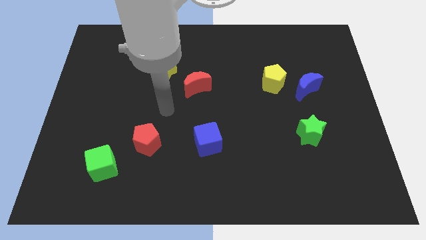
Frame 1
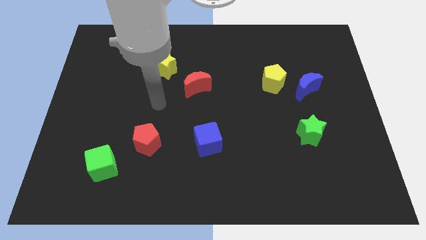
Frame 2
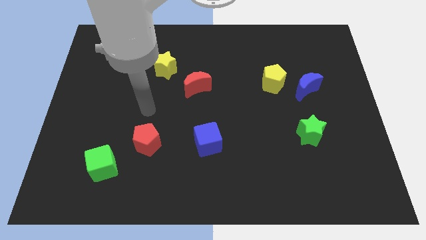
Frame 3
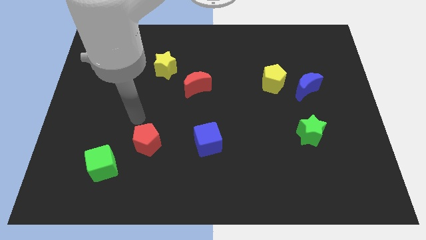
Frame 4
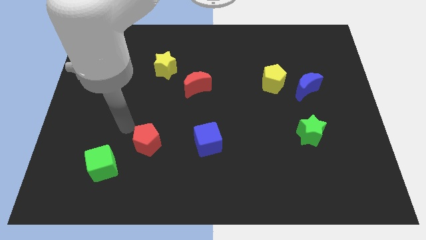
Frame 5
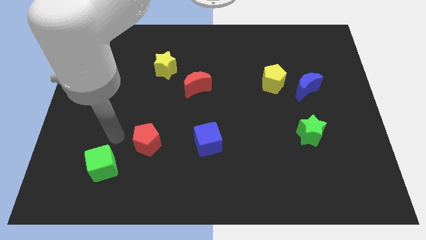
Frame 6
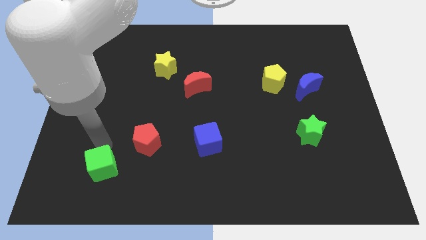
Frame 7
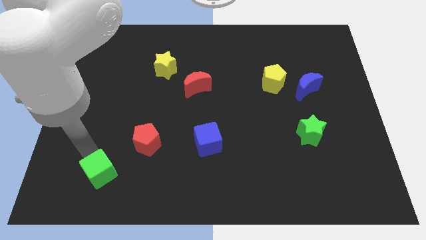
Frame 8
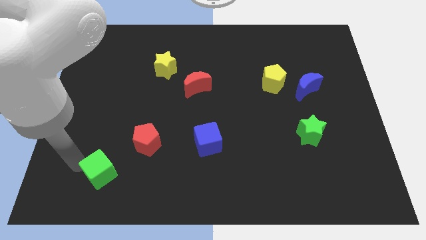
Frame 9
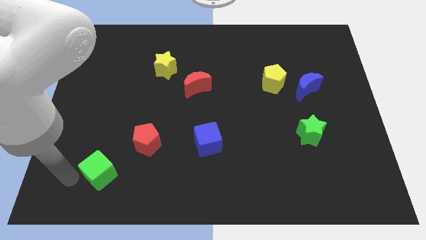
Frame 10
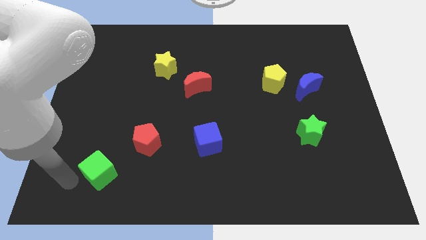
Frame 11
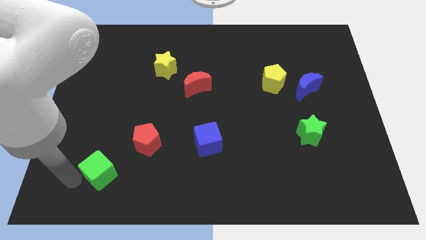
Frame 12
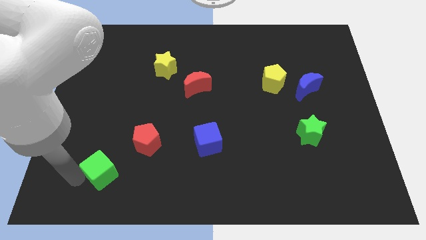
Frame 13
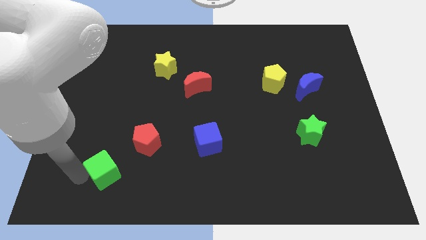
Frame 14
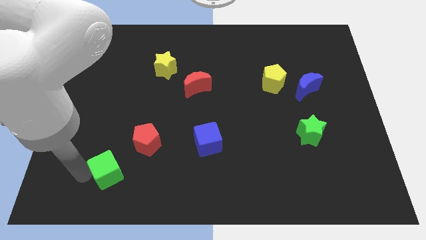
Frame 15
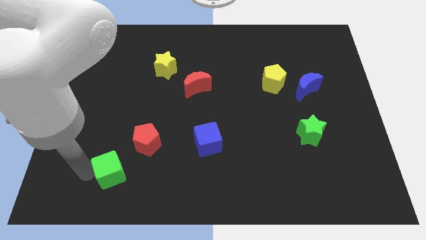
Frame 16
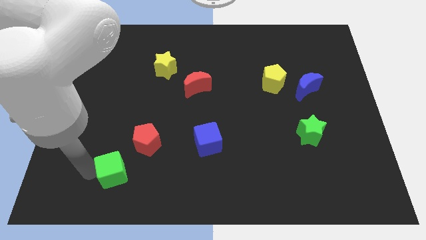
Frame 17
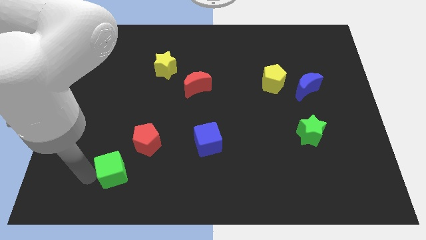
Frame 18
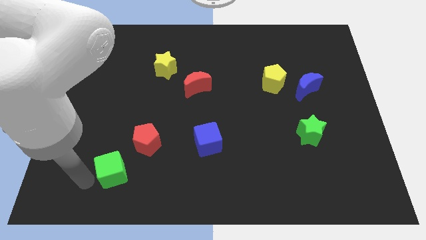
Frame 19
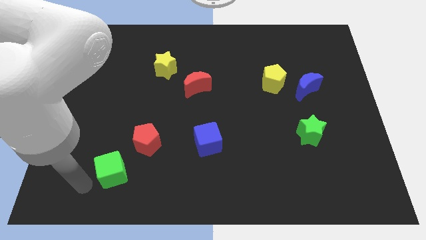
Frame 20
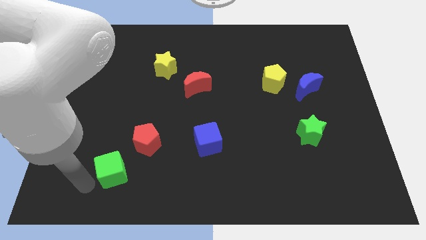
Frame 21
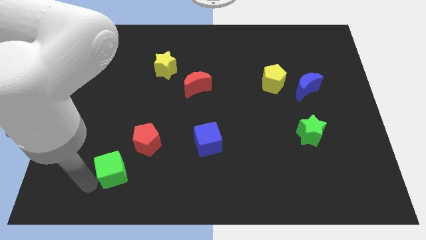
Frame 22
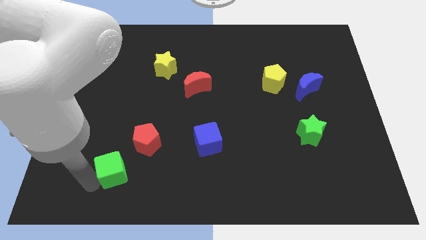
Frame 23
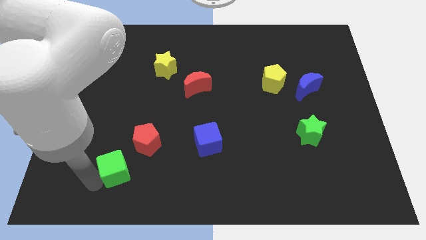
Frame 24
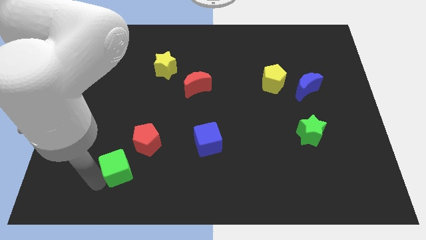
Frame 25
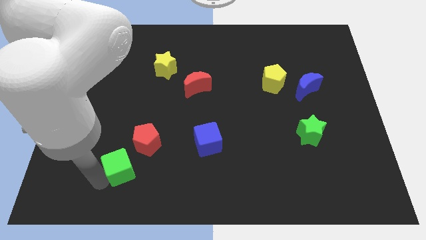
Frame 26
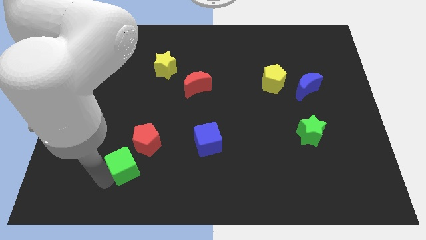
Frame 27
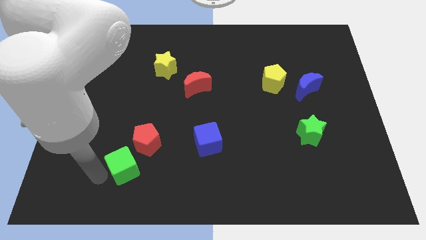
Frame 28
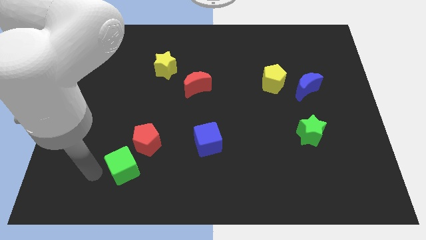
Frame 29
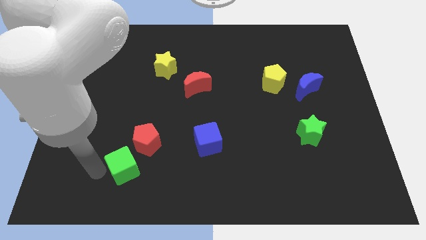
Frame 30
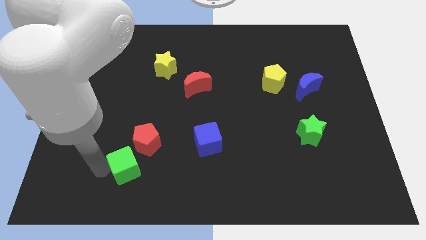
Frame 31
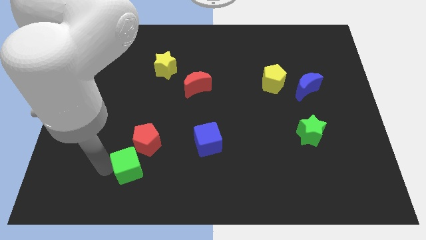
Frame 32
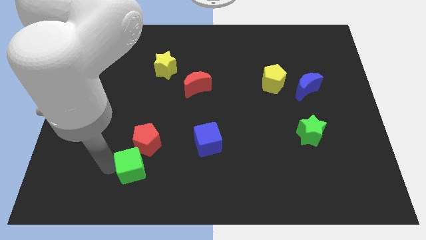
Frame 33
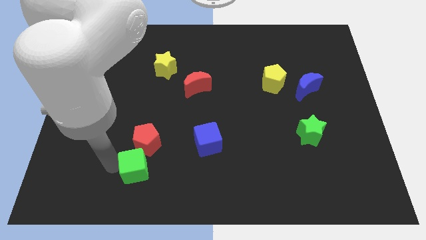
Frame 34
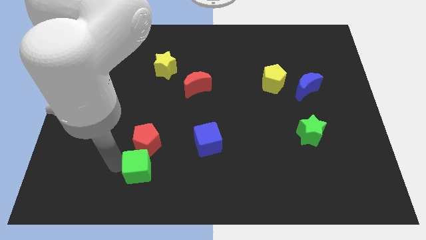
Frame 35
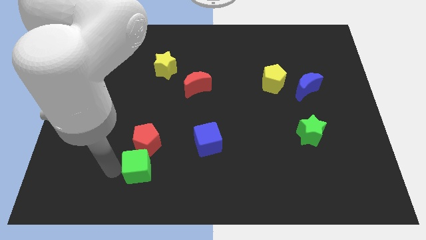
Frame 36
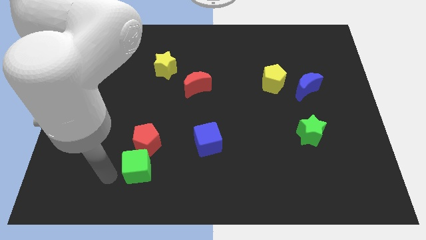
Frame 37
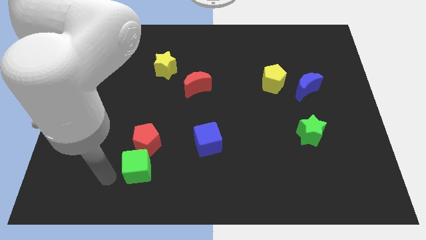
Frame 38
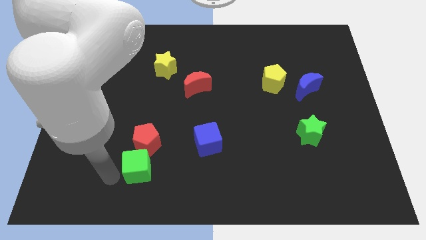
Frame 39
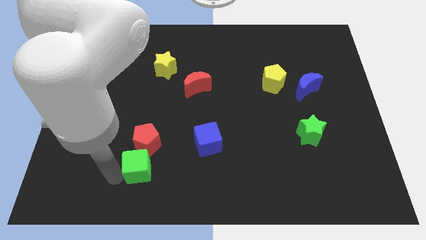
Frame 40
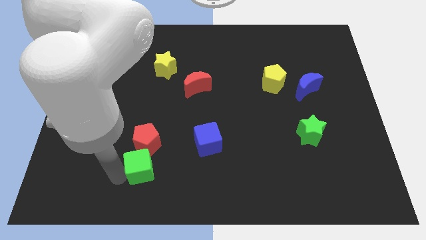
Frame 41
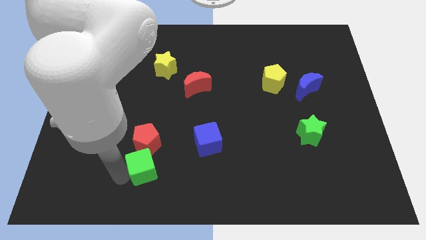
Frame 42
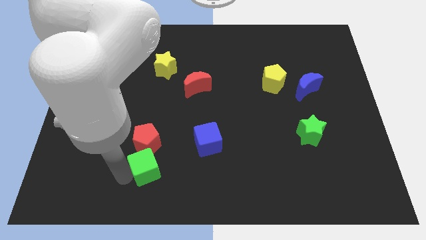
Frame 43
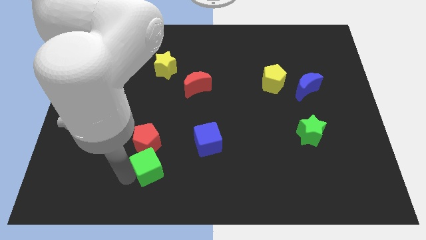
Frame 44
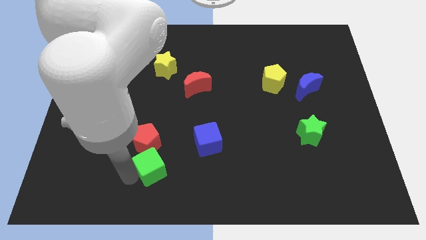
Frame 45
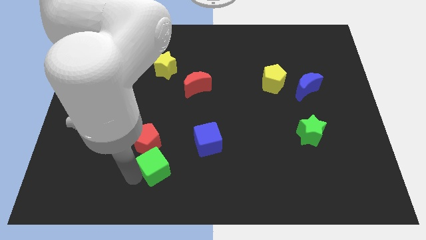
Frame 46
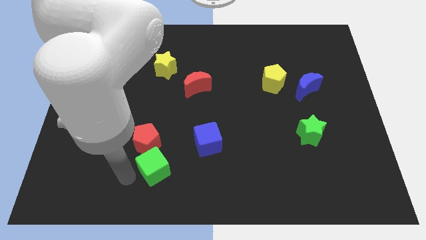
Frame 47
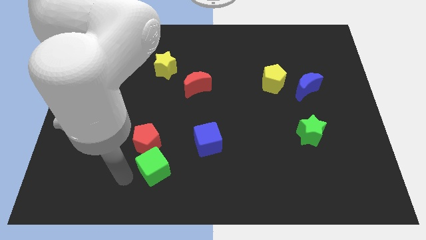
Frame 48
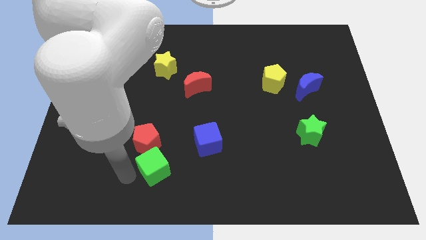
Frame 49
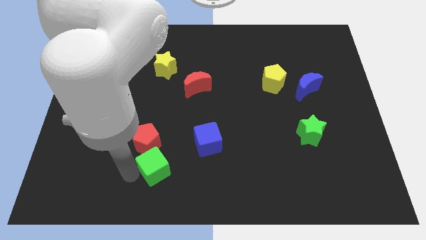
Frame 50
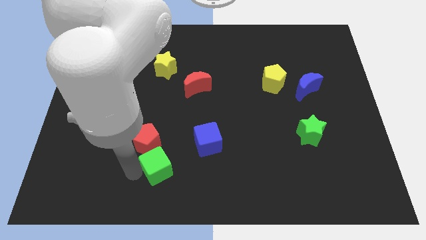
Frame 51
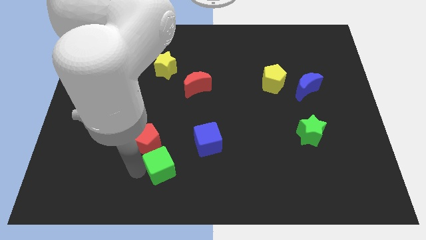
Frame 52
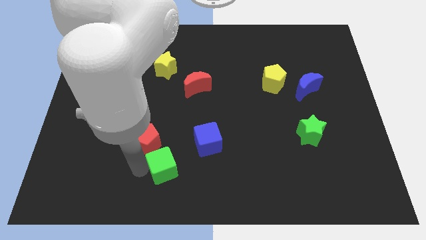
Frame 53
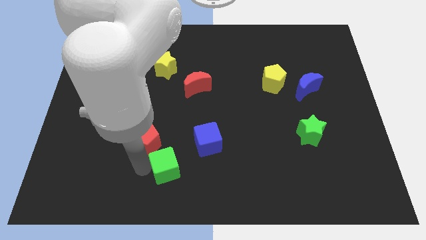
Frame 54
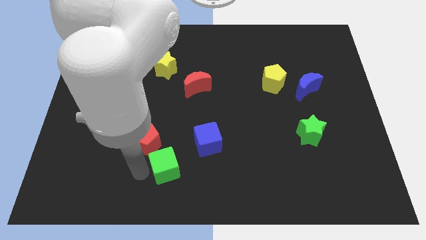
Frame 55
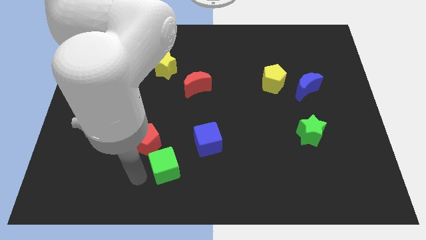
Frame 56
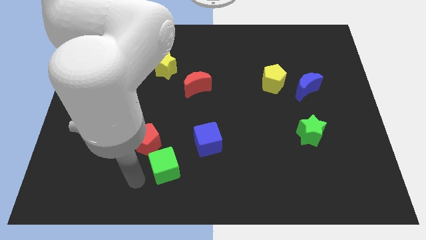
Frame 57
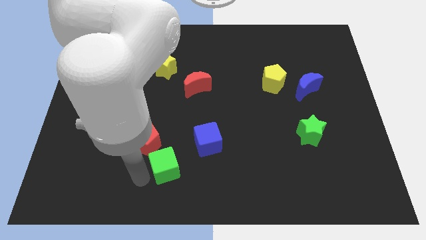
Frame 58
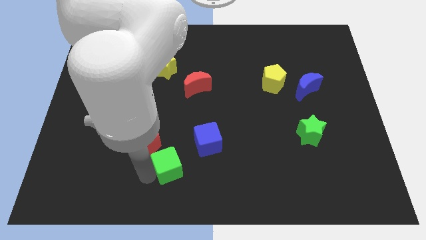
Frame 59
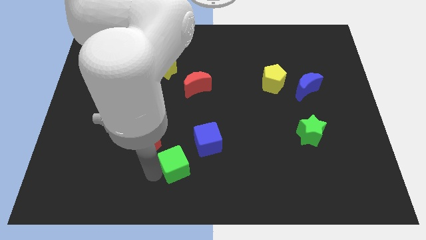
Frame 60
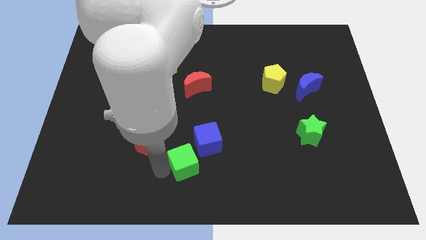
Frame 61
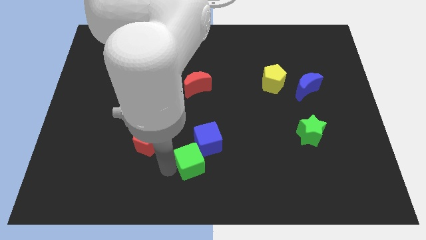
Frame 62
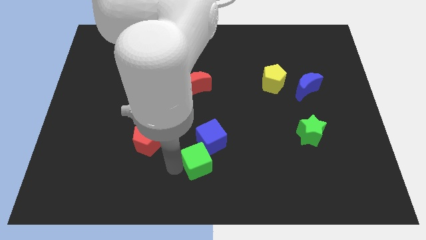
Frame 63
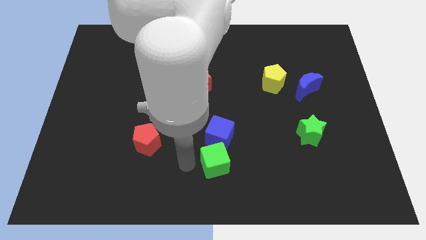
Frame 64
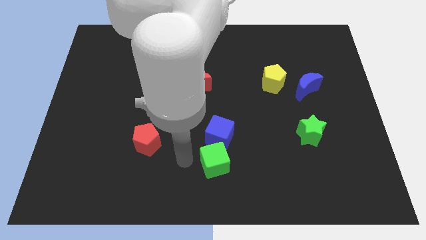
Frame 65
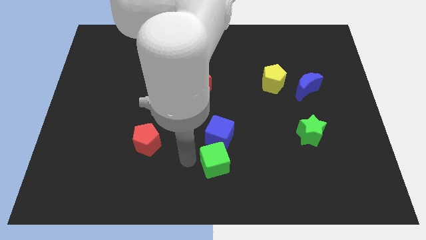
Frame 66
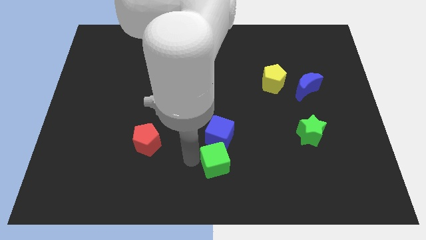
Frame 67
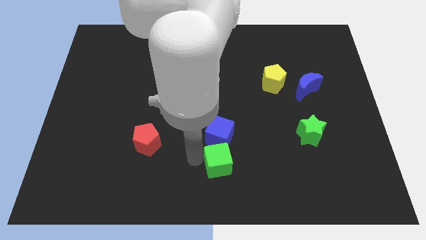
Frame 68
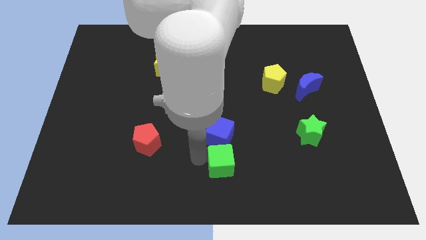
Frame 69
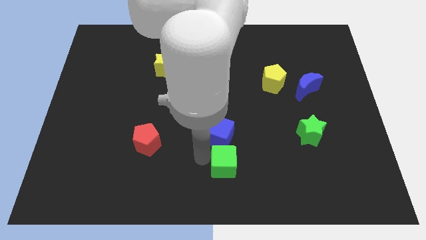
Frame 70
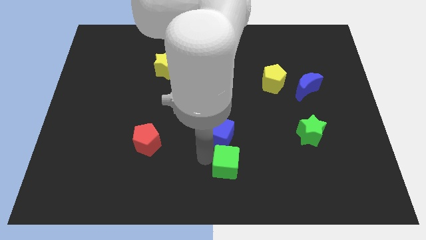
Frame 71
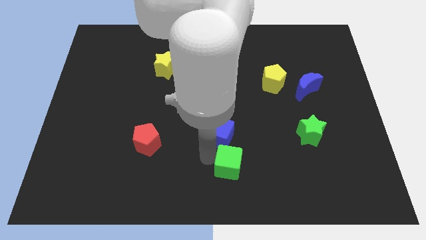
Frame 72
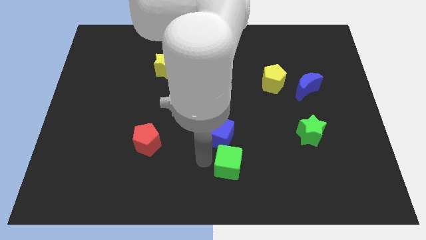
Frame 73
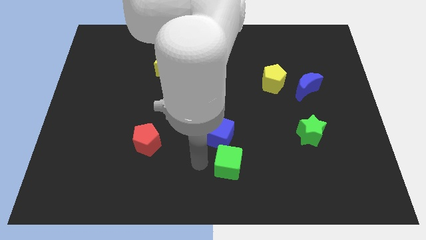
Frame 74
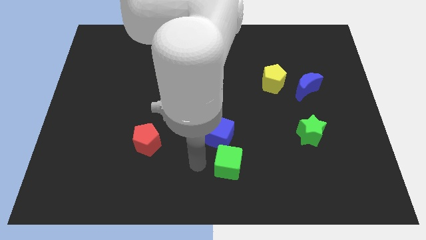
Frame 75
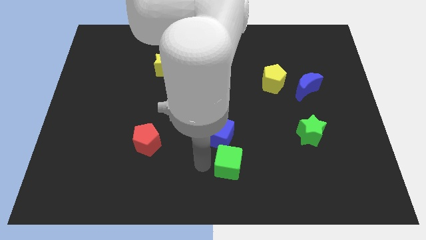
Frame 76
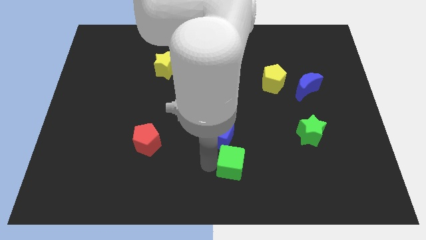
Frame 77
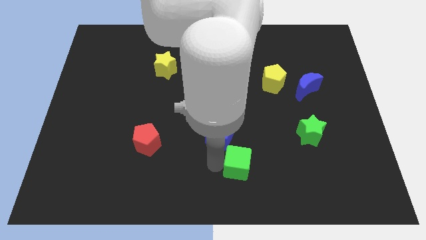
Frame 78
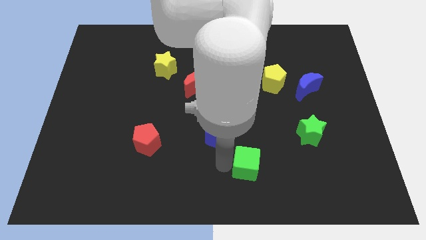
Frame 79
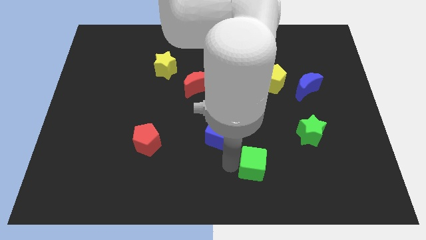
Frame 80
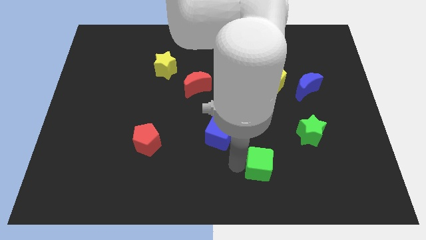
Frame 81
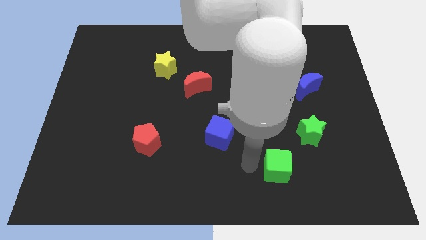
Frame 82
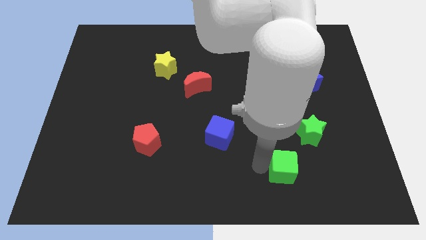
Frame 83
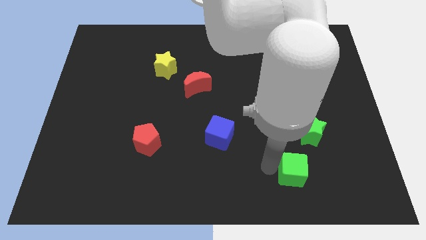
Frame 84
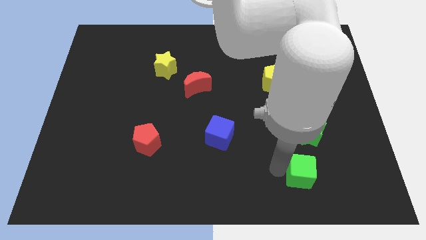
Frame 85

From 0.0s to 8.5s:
move the green cube to the bottom of the green star
